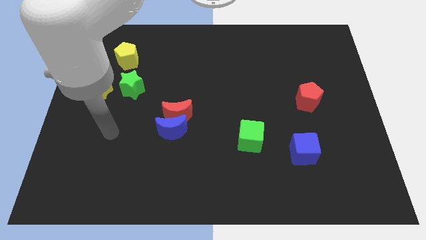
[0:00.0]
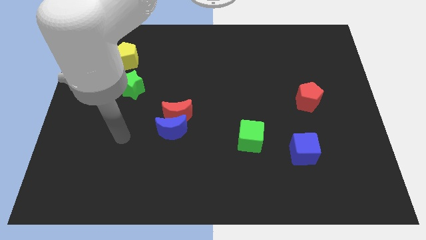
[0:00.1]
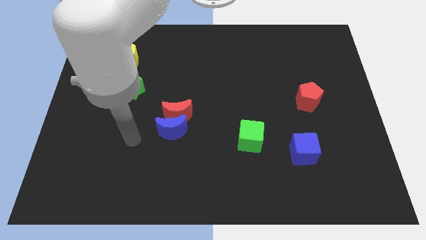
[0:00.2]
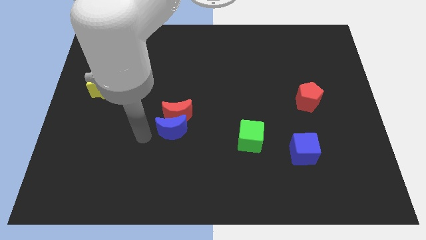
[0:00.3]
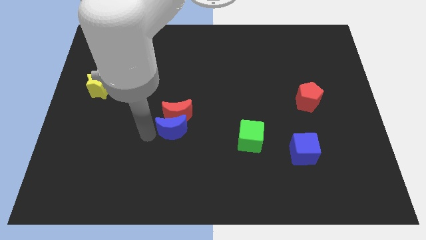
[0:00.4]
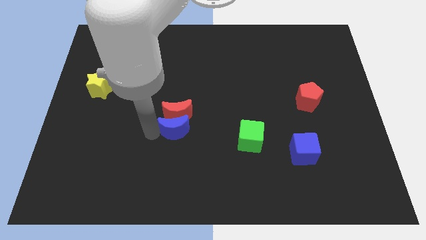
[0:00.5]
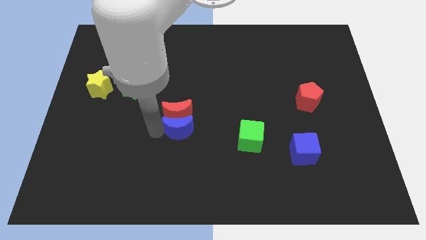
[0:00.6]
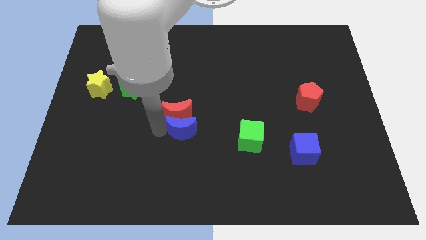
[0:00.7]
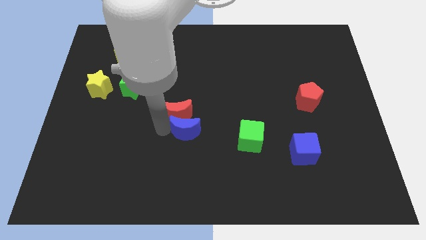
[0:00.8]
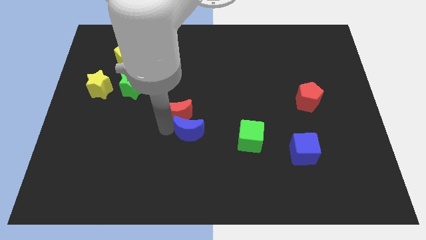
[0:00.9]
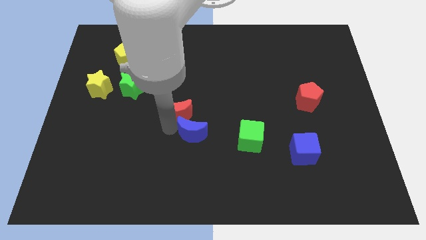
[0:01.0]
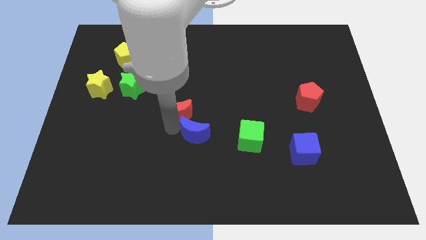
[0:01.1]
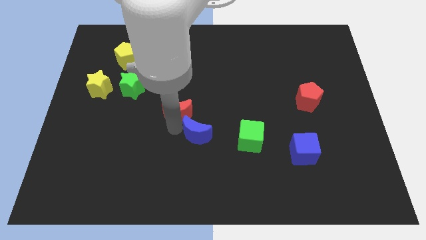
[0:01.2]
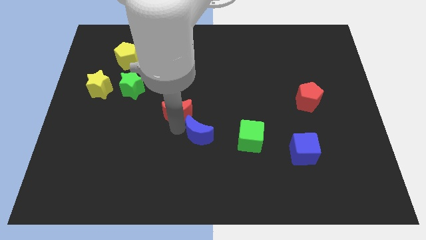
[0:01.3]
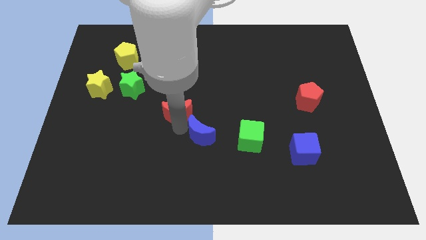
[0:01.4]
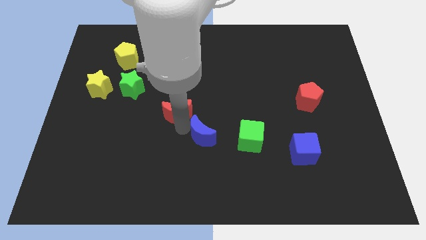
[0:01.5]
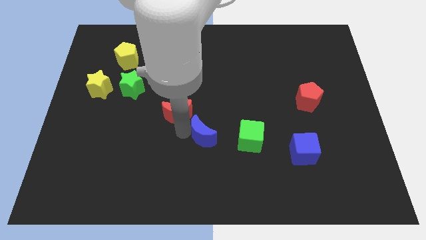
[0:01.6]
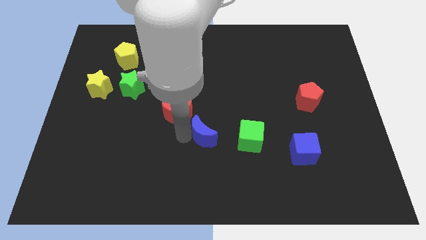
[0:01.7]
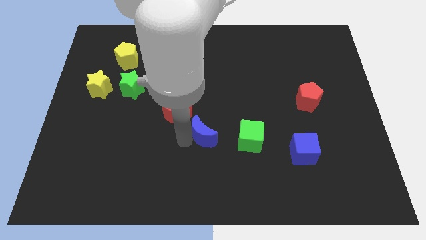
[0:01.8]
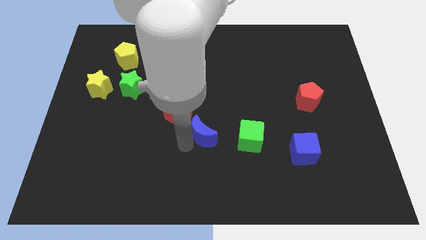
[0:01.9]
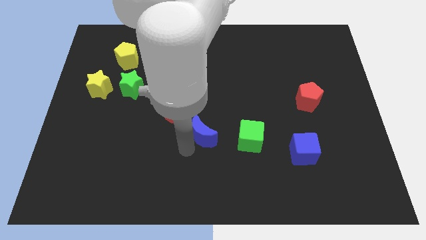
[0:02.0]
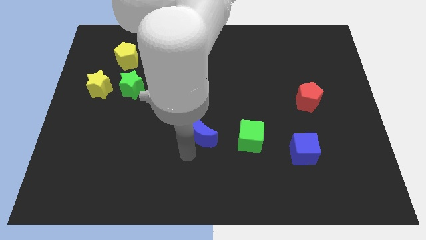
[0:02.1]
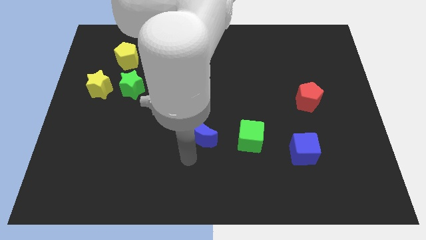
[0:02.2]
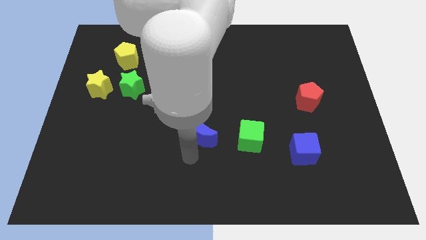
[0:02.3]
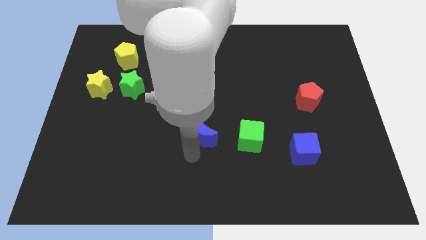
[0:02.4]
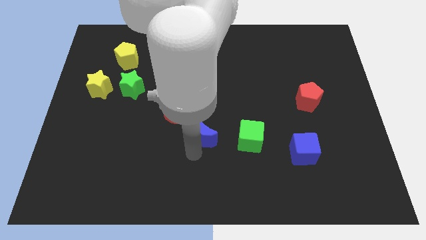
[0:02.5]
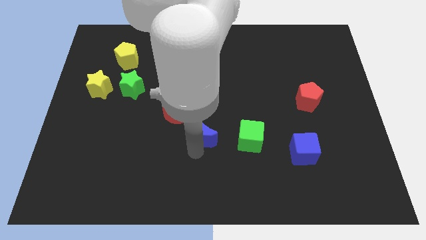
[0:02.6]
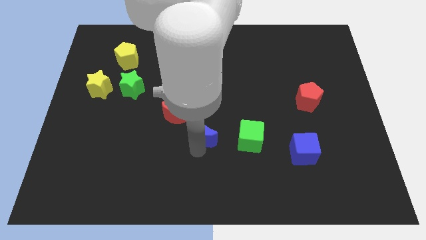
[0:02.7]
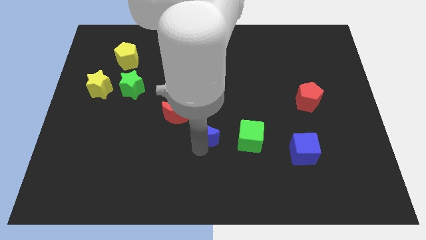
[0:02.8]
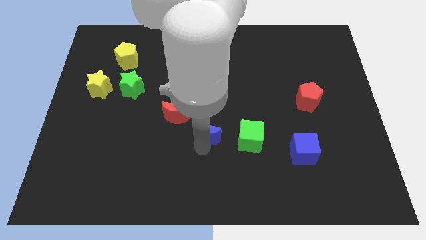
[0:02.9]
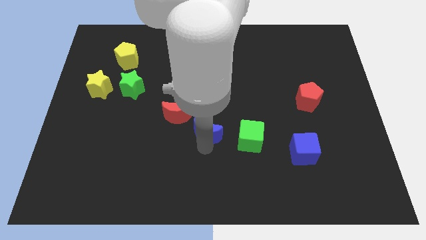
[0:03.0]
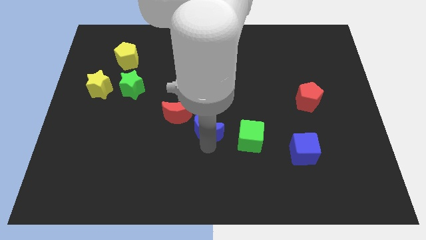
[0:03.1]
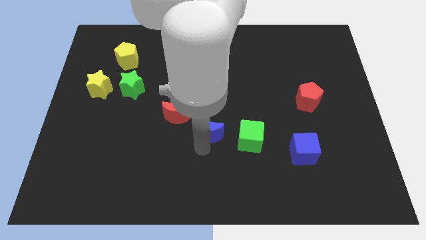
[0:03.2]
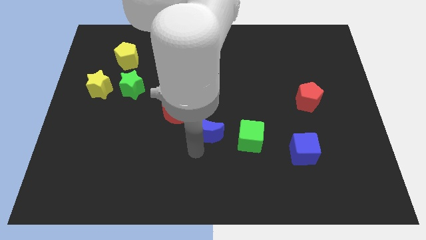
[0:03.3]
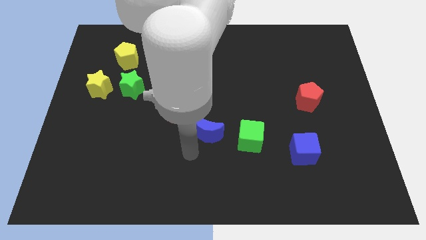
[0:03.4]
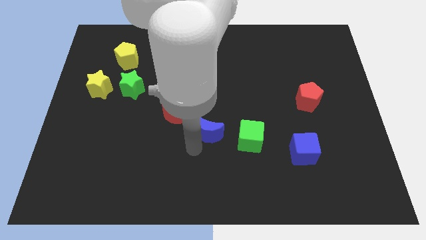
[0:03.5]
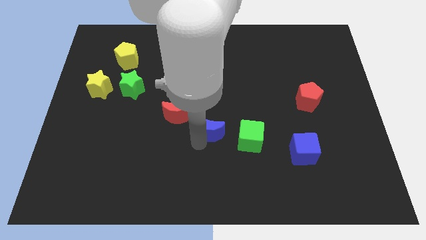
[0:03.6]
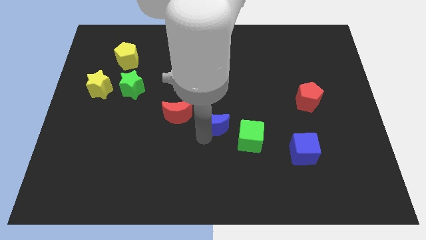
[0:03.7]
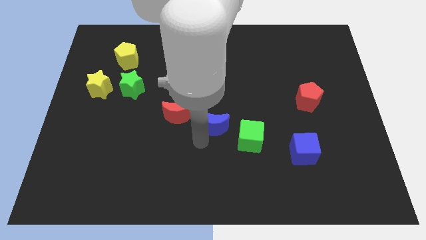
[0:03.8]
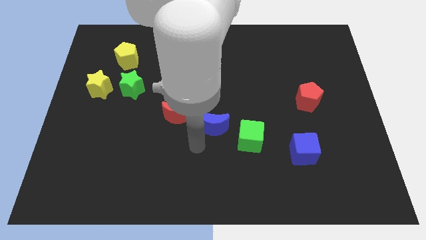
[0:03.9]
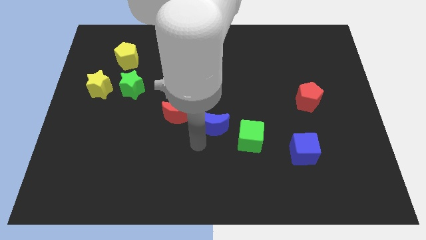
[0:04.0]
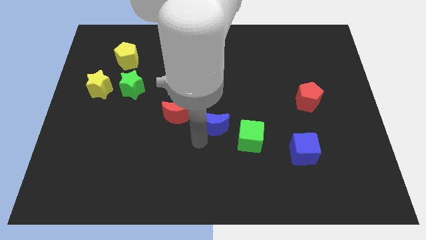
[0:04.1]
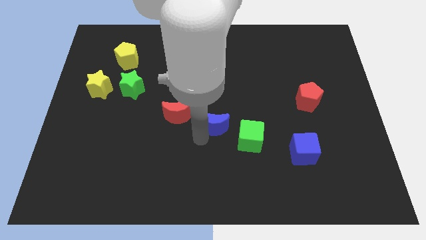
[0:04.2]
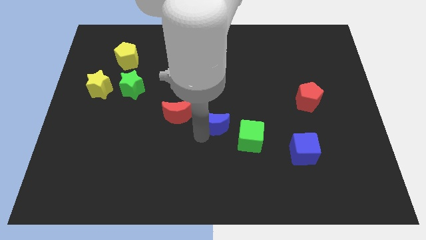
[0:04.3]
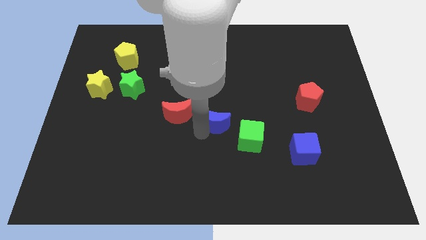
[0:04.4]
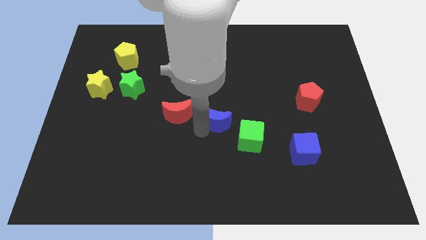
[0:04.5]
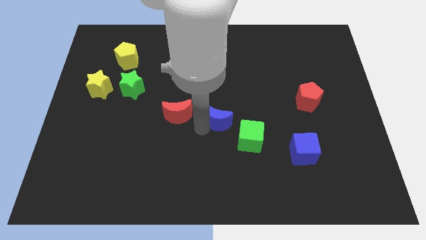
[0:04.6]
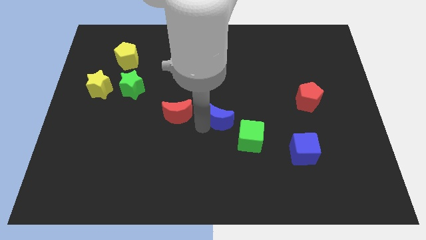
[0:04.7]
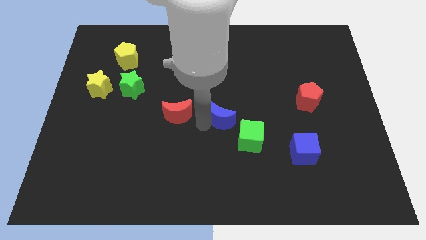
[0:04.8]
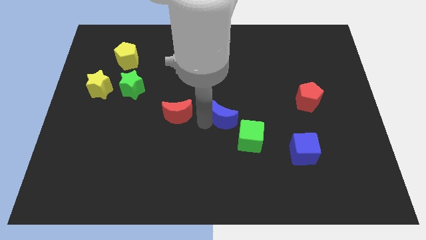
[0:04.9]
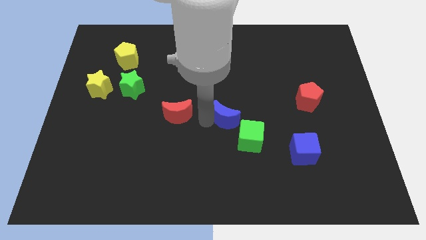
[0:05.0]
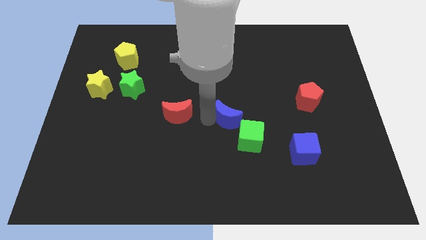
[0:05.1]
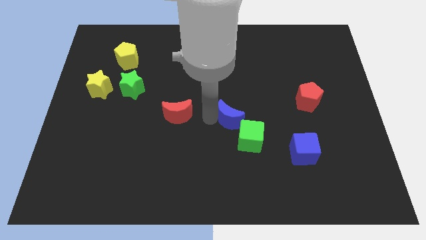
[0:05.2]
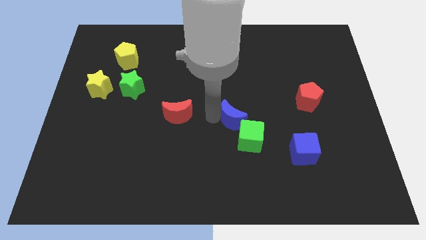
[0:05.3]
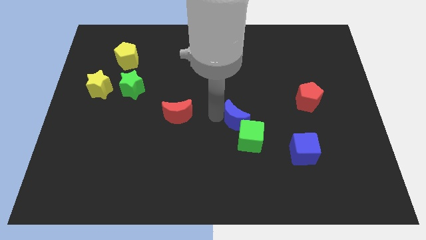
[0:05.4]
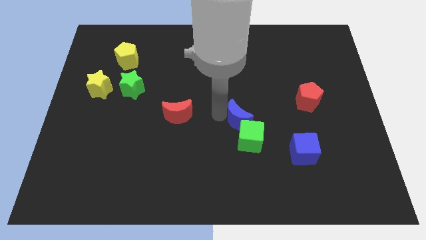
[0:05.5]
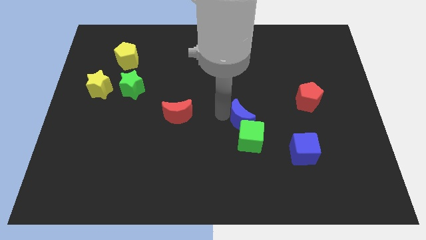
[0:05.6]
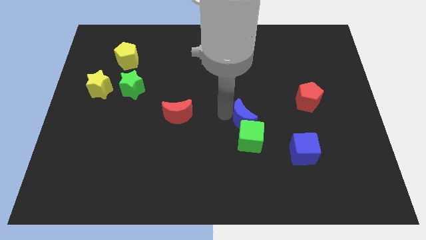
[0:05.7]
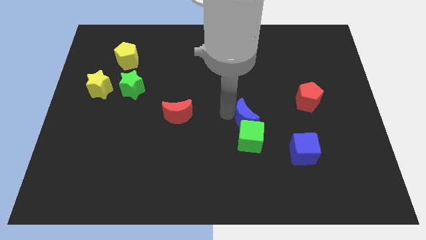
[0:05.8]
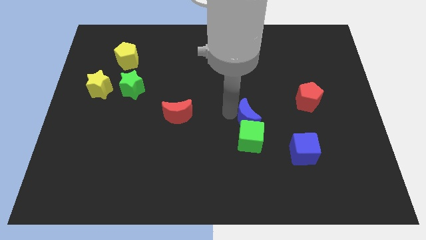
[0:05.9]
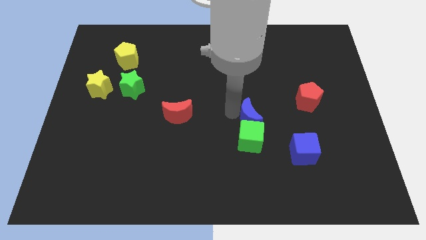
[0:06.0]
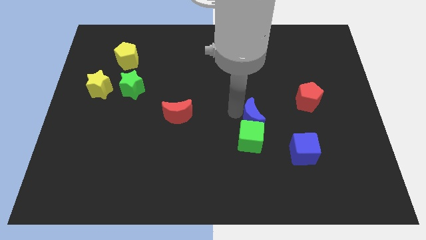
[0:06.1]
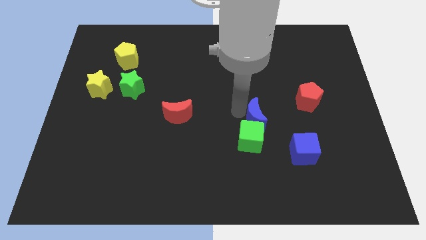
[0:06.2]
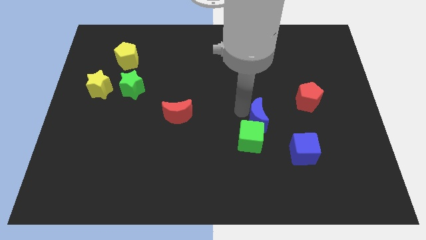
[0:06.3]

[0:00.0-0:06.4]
move the blue moon to the top left of the blue cube
